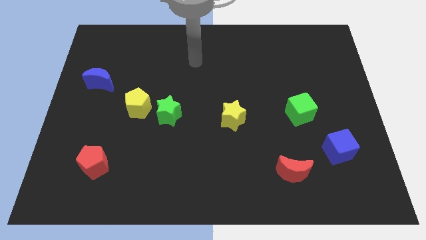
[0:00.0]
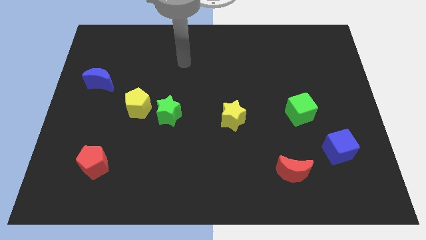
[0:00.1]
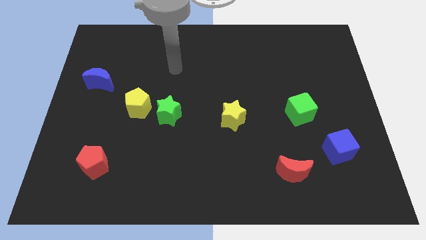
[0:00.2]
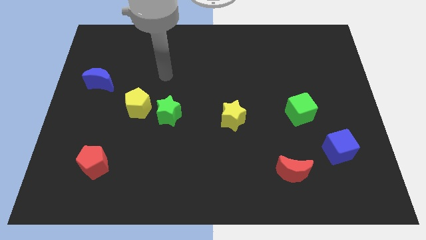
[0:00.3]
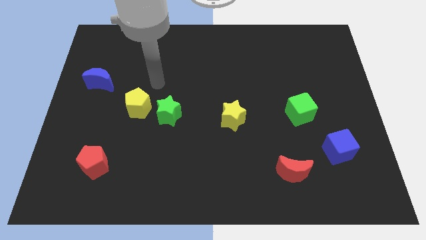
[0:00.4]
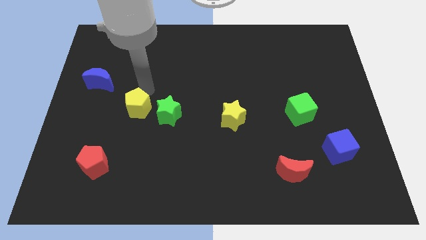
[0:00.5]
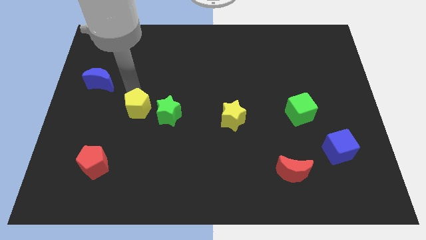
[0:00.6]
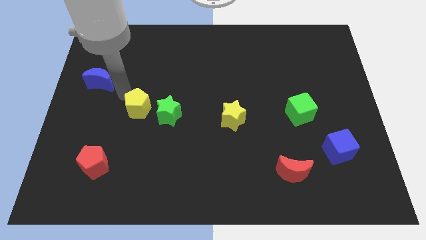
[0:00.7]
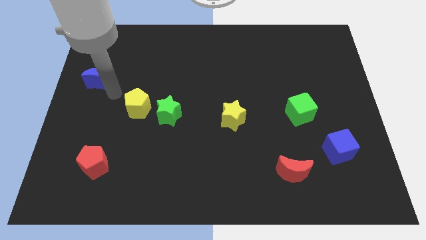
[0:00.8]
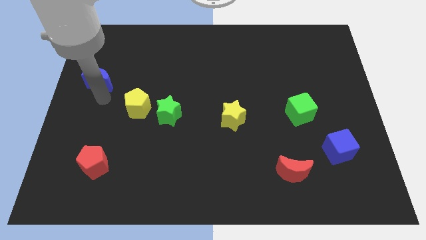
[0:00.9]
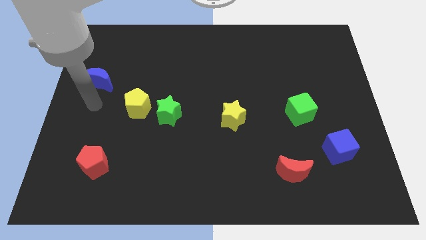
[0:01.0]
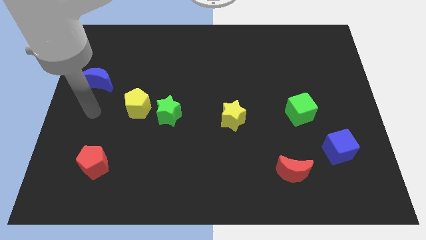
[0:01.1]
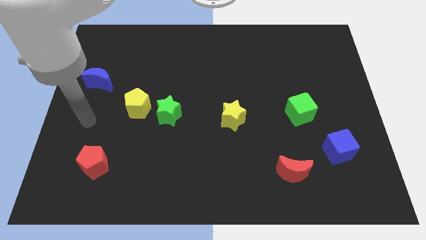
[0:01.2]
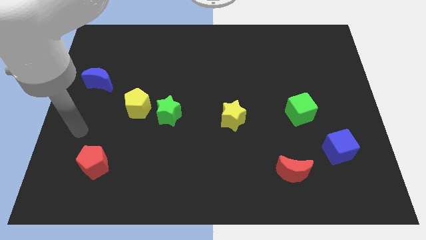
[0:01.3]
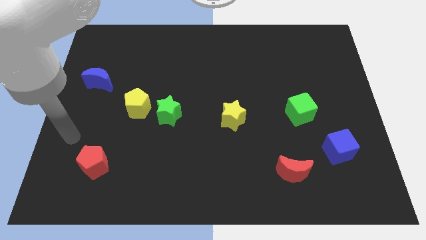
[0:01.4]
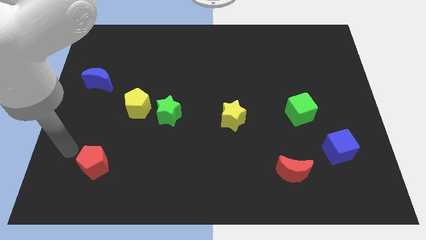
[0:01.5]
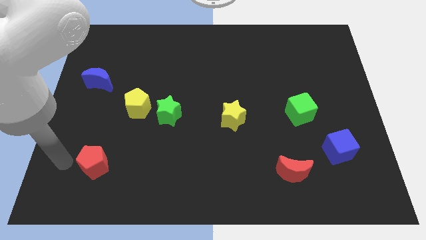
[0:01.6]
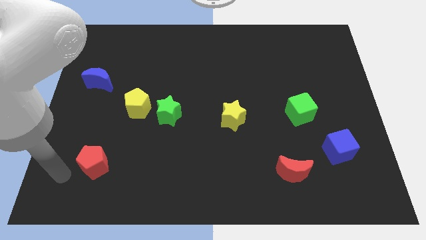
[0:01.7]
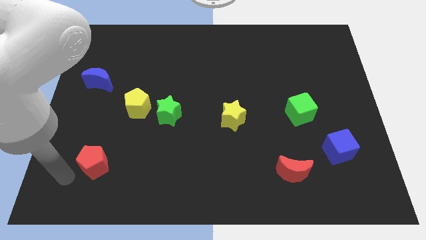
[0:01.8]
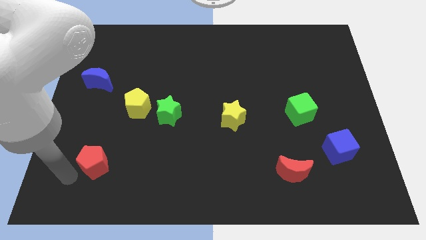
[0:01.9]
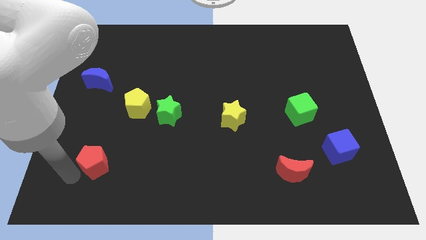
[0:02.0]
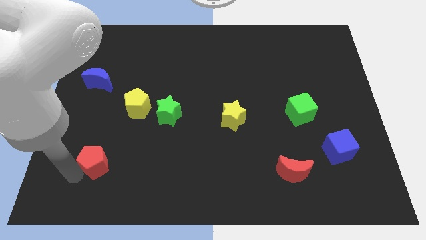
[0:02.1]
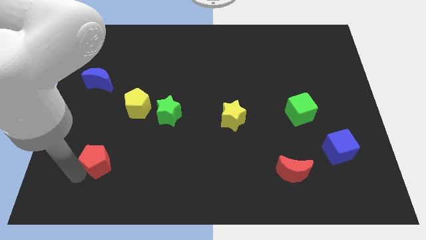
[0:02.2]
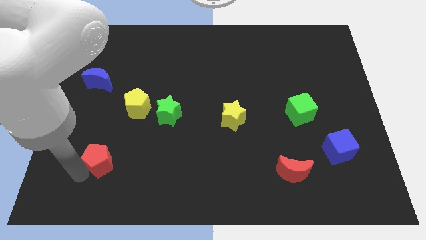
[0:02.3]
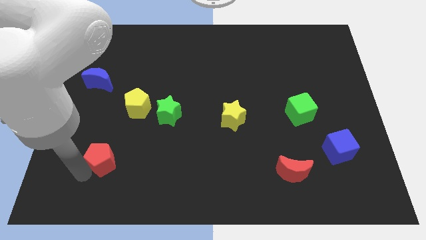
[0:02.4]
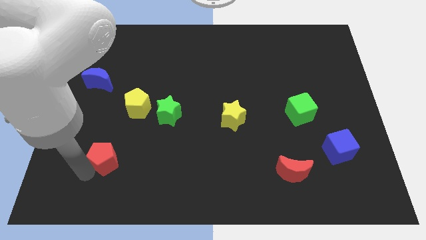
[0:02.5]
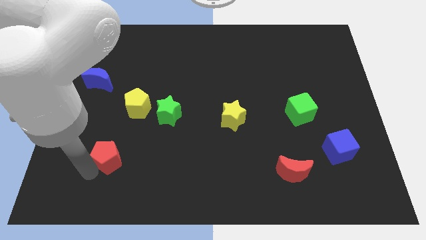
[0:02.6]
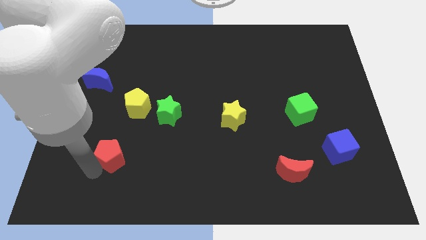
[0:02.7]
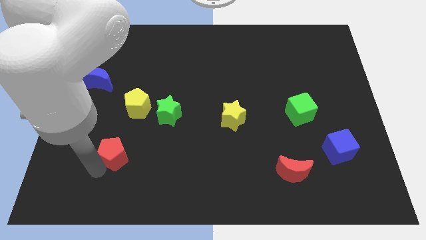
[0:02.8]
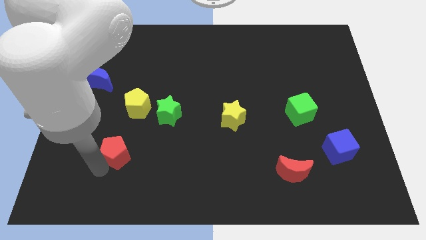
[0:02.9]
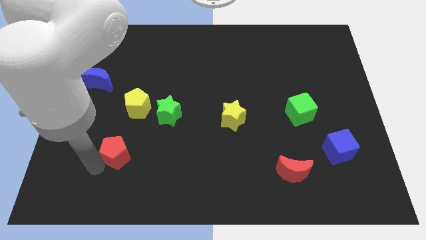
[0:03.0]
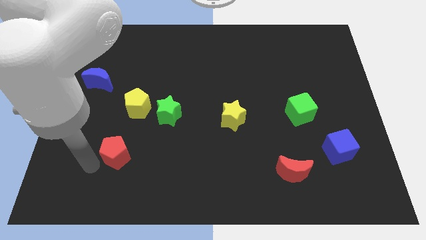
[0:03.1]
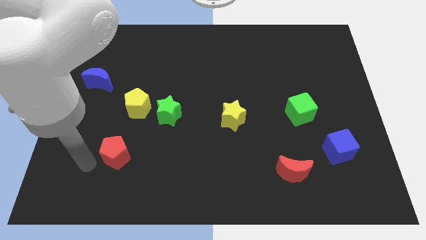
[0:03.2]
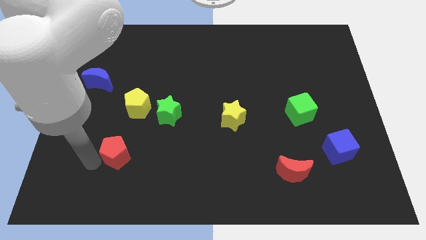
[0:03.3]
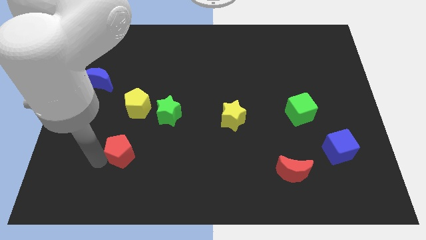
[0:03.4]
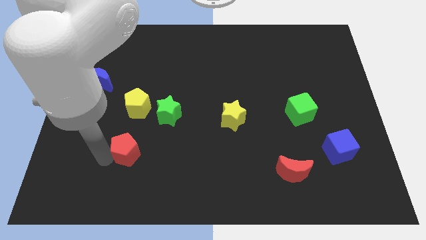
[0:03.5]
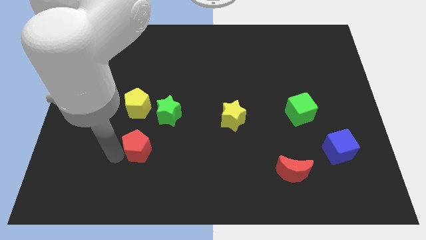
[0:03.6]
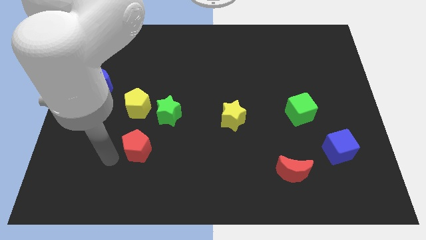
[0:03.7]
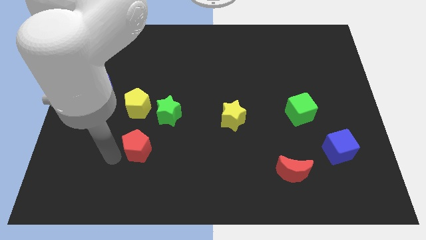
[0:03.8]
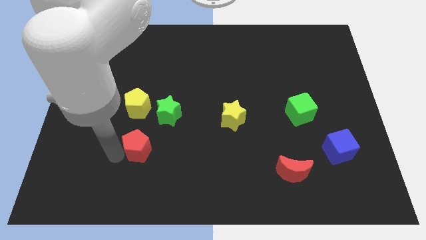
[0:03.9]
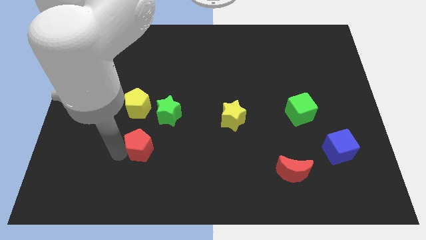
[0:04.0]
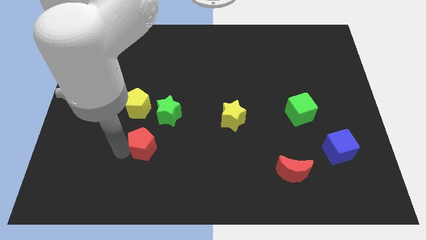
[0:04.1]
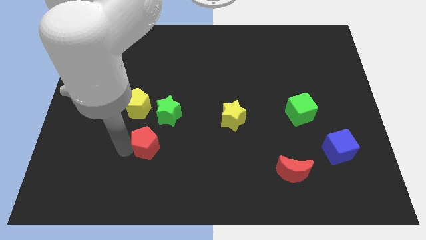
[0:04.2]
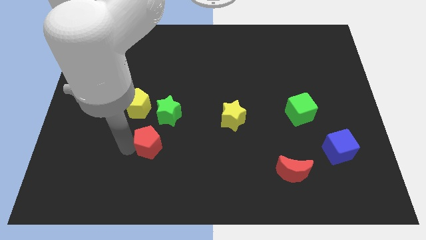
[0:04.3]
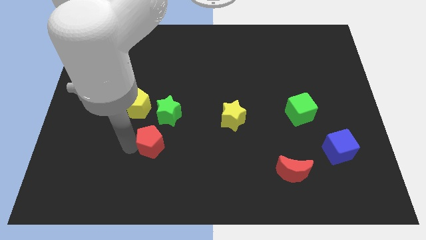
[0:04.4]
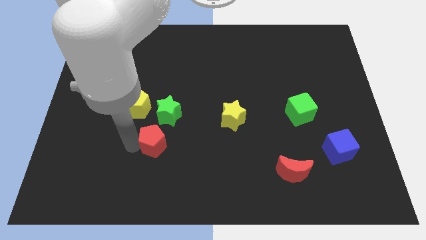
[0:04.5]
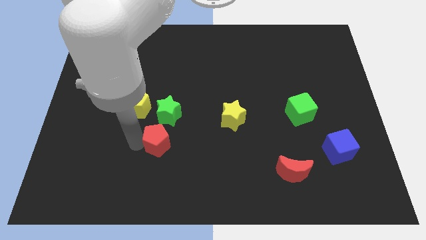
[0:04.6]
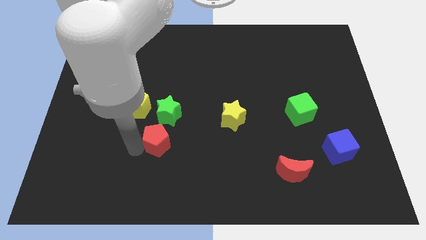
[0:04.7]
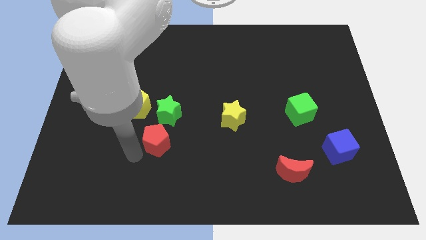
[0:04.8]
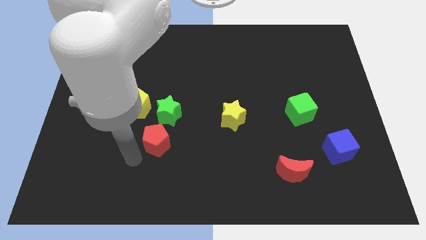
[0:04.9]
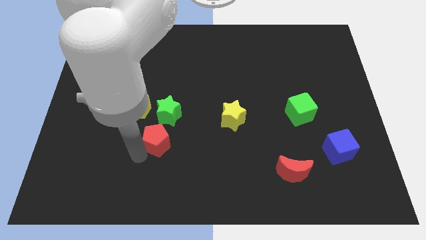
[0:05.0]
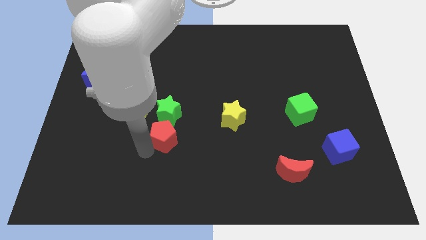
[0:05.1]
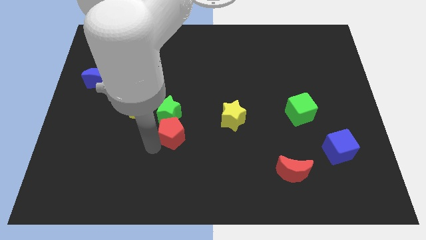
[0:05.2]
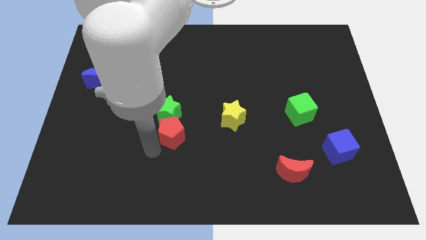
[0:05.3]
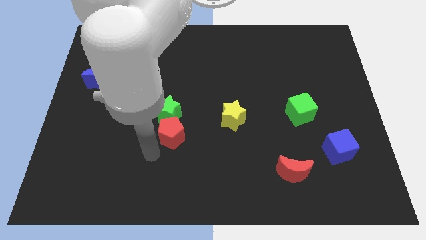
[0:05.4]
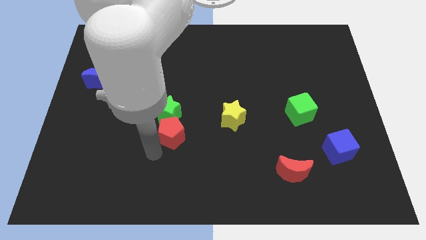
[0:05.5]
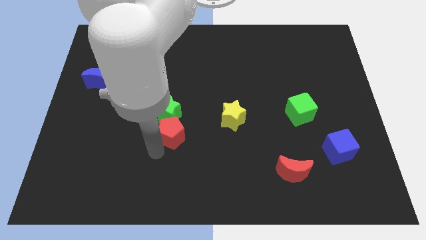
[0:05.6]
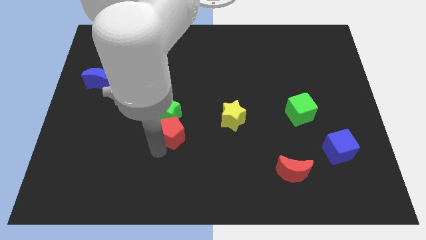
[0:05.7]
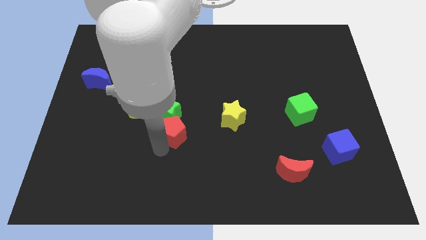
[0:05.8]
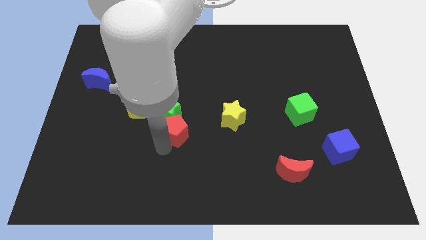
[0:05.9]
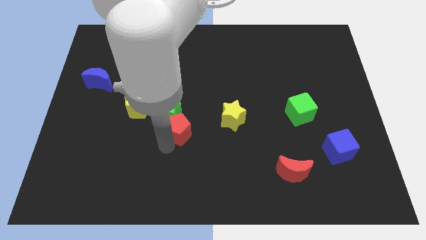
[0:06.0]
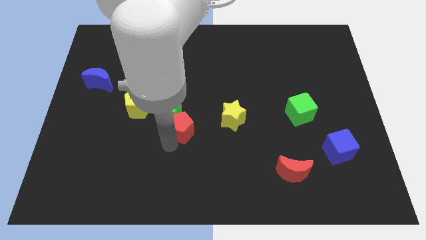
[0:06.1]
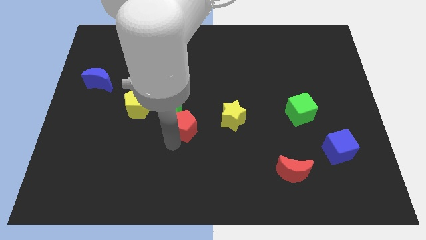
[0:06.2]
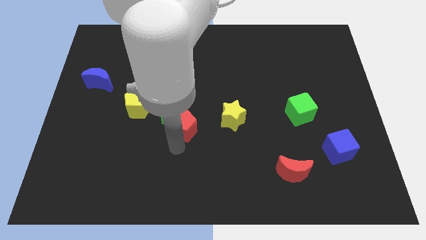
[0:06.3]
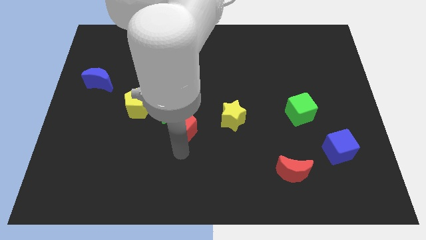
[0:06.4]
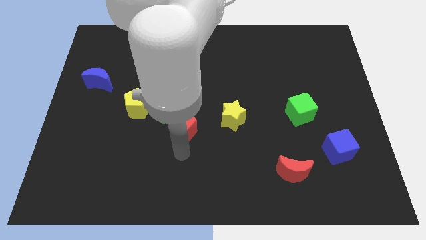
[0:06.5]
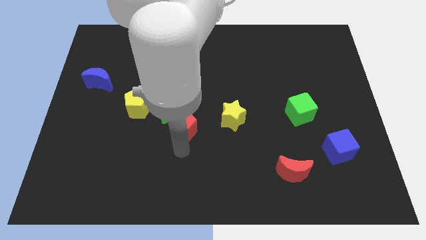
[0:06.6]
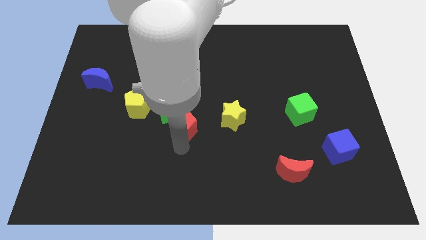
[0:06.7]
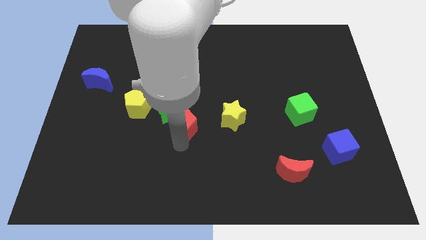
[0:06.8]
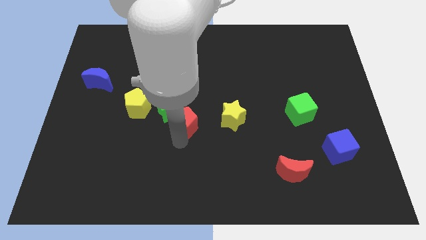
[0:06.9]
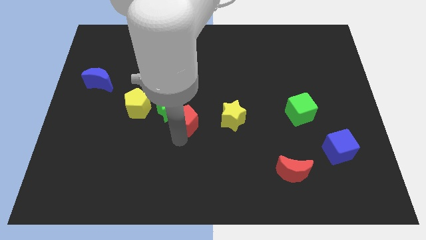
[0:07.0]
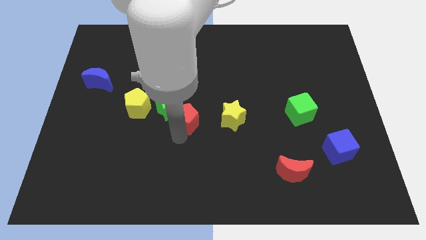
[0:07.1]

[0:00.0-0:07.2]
push the red pentagon upwards and to the right

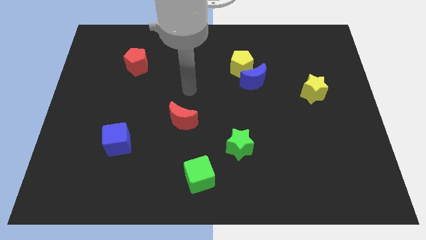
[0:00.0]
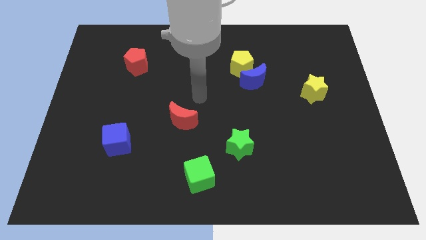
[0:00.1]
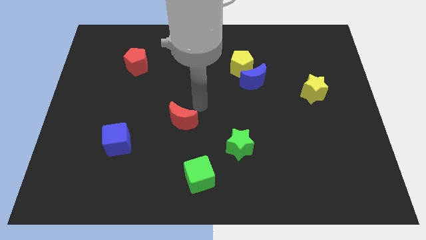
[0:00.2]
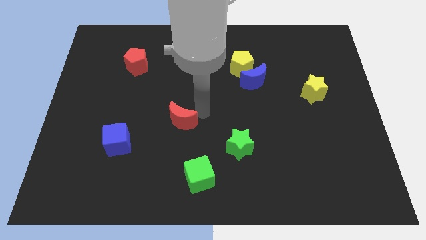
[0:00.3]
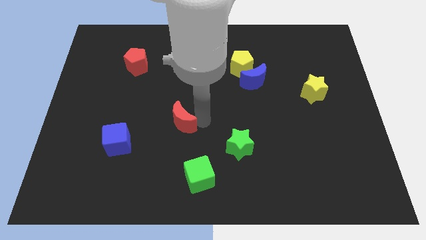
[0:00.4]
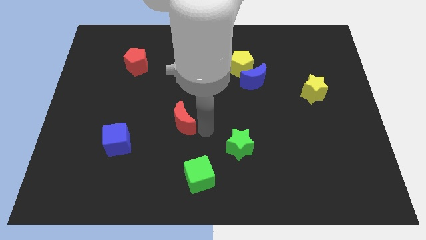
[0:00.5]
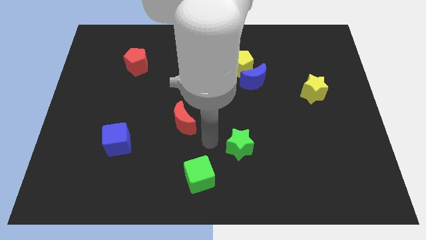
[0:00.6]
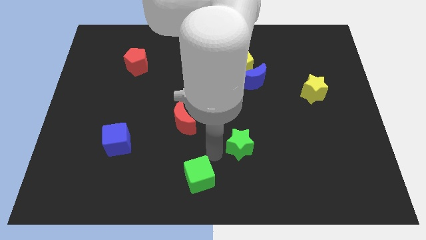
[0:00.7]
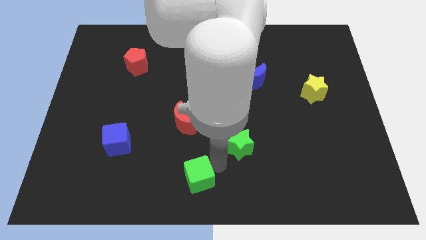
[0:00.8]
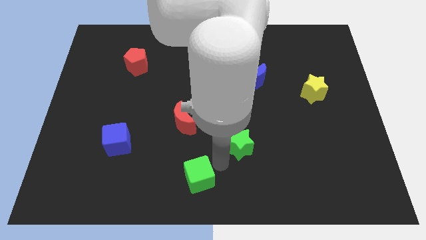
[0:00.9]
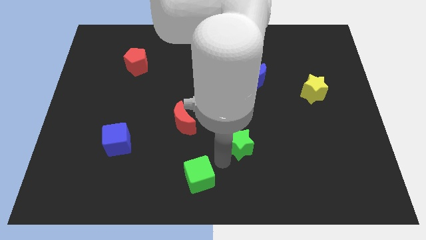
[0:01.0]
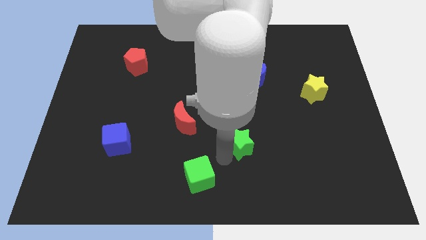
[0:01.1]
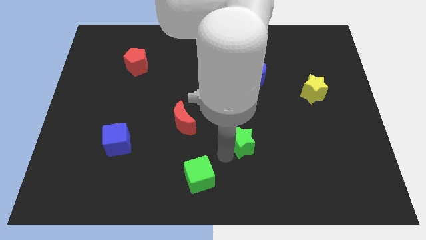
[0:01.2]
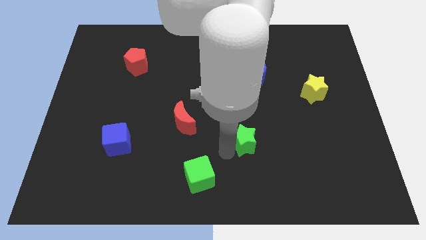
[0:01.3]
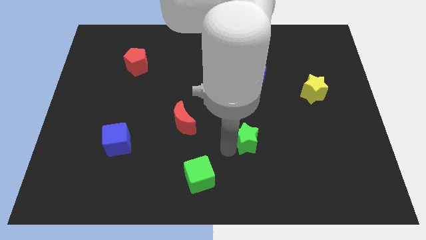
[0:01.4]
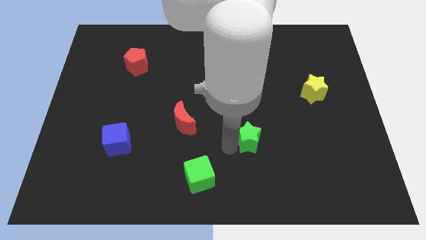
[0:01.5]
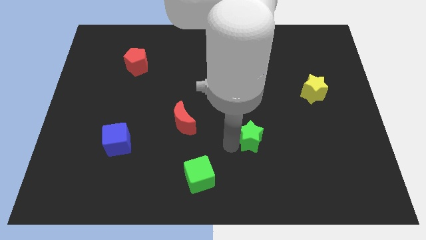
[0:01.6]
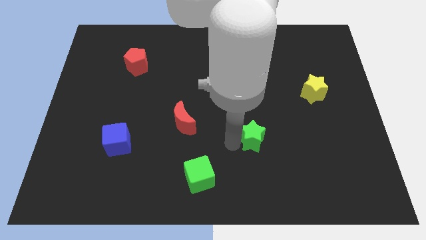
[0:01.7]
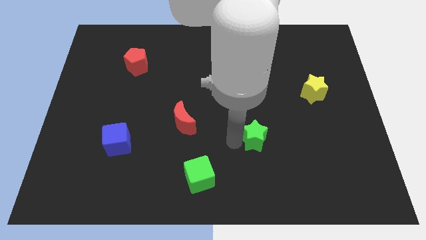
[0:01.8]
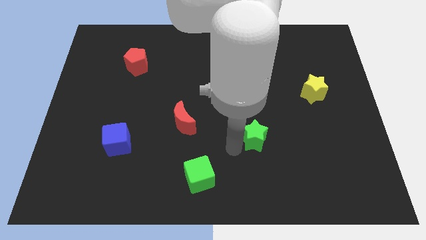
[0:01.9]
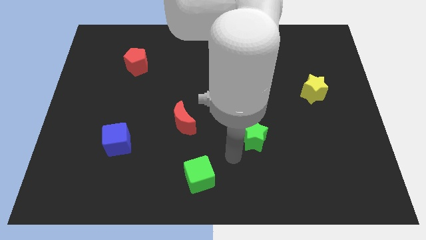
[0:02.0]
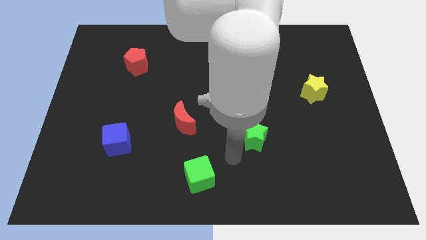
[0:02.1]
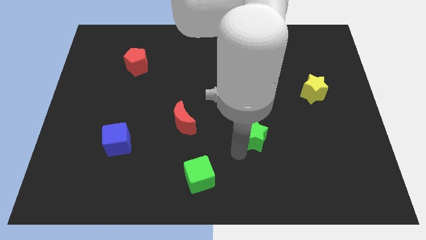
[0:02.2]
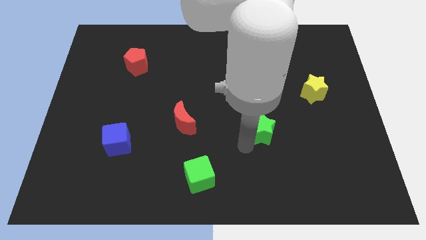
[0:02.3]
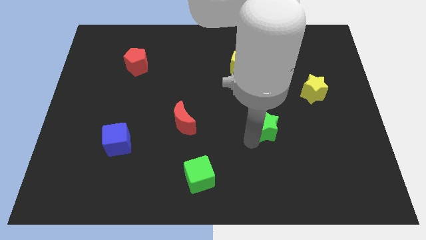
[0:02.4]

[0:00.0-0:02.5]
slightly slide the green star upwards and then to the right
